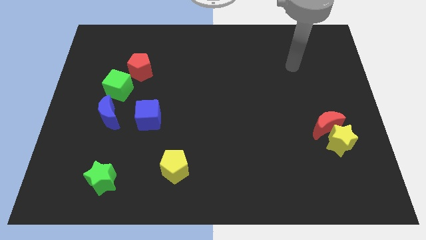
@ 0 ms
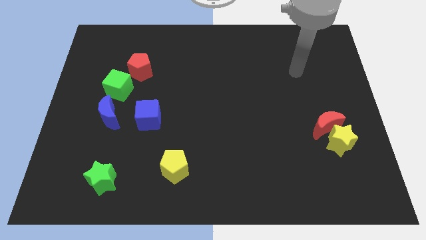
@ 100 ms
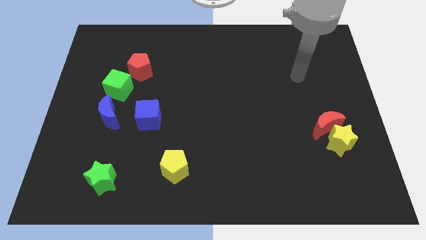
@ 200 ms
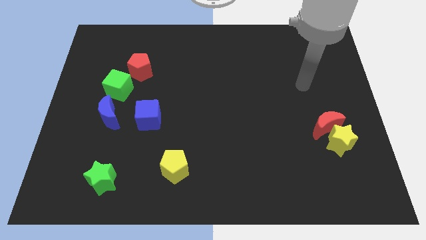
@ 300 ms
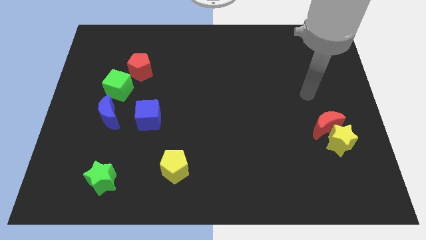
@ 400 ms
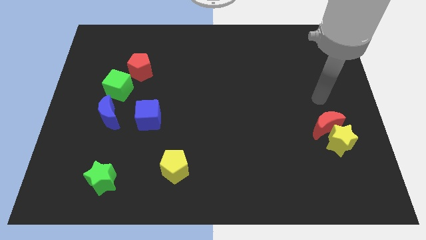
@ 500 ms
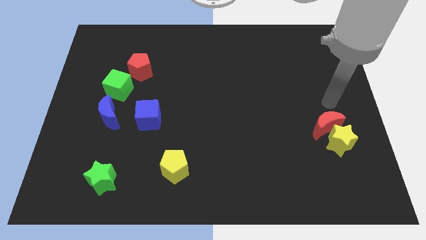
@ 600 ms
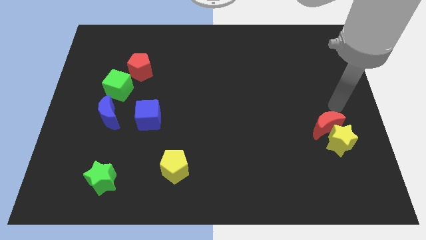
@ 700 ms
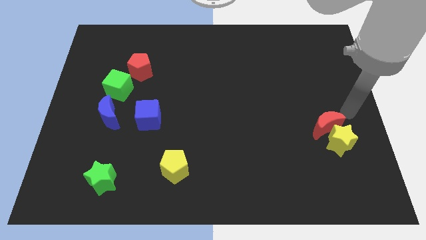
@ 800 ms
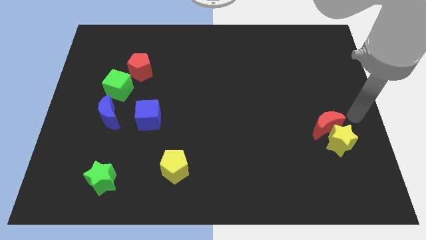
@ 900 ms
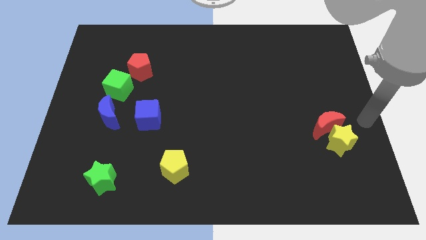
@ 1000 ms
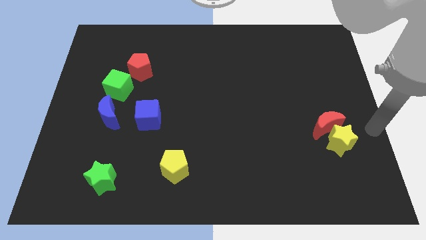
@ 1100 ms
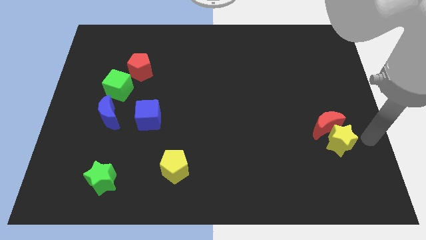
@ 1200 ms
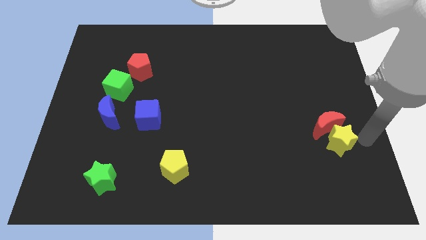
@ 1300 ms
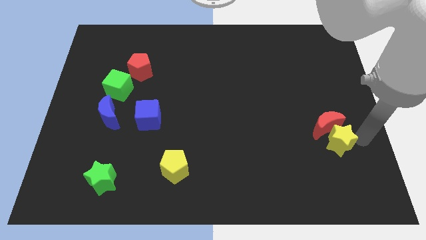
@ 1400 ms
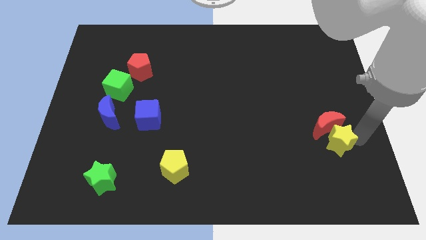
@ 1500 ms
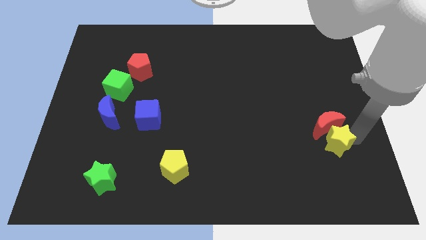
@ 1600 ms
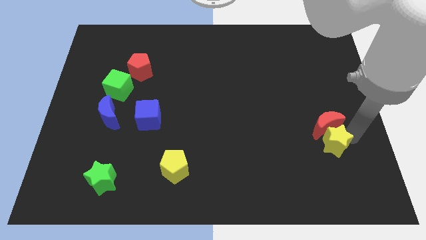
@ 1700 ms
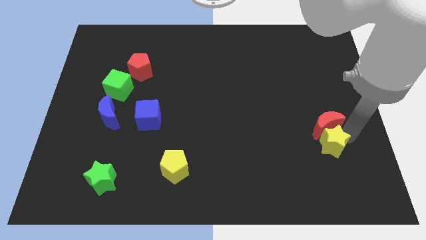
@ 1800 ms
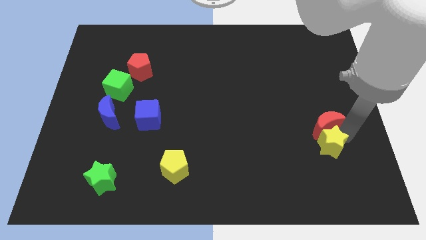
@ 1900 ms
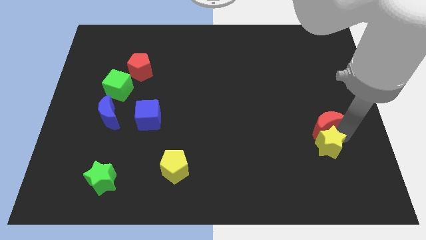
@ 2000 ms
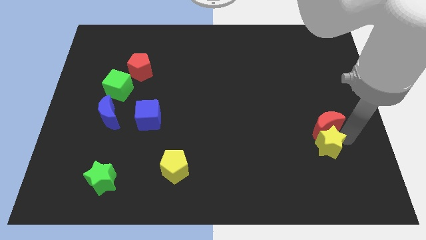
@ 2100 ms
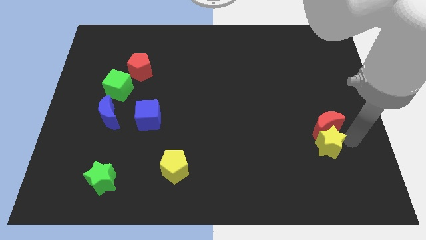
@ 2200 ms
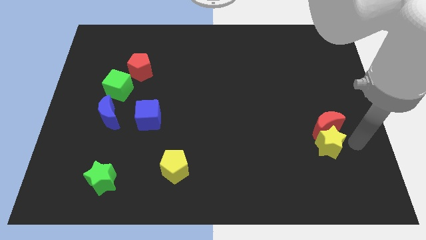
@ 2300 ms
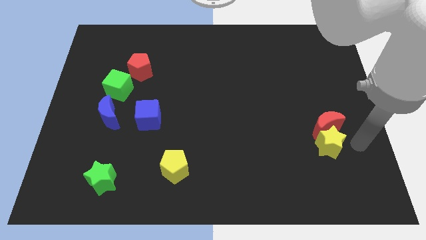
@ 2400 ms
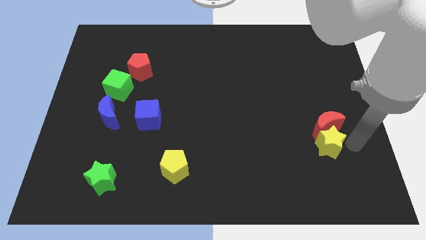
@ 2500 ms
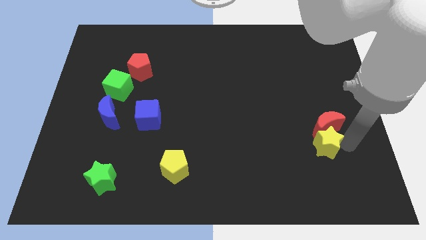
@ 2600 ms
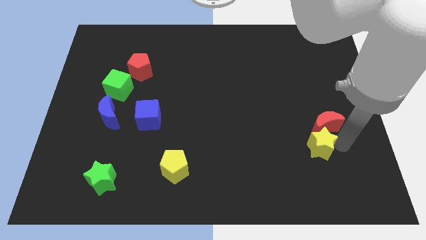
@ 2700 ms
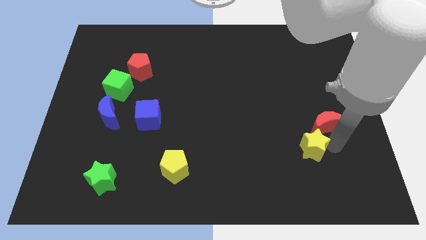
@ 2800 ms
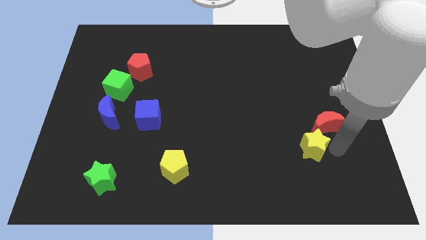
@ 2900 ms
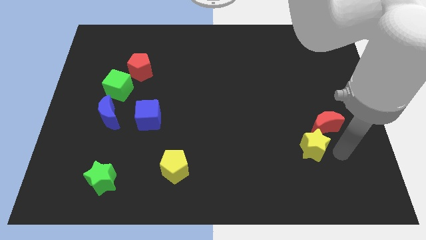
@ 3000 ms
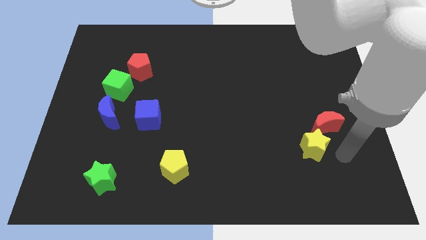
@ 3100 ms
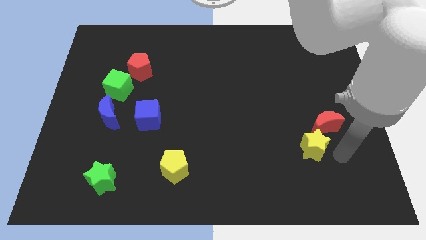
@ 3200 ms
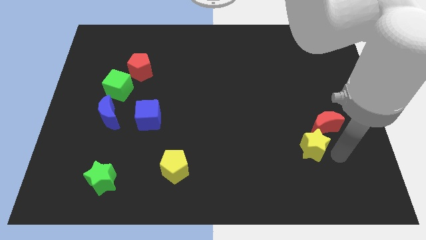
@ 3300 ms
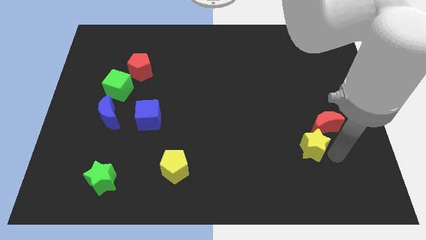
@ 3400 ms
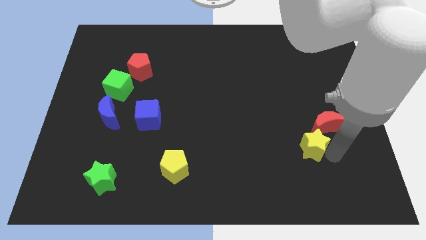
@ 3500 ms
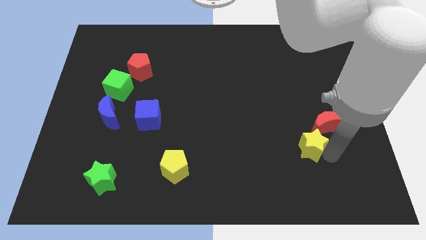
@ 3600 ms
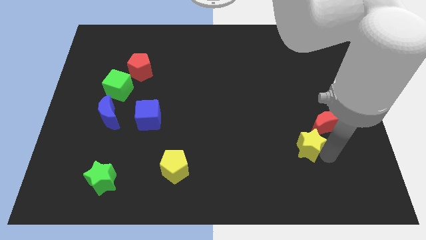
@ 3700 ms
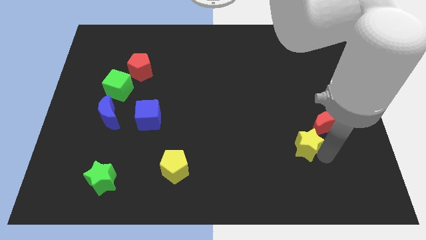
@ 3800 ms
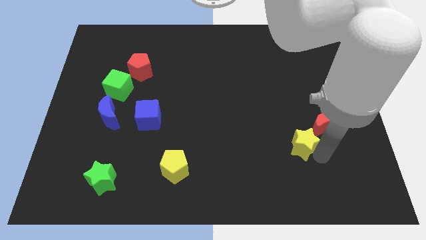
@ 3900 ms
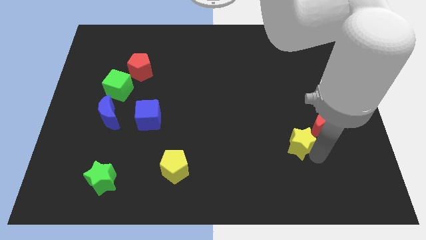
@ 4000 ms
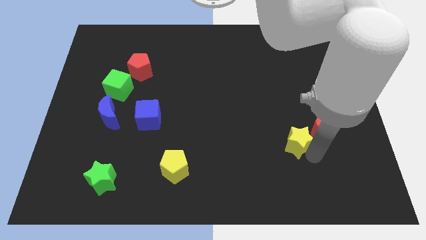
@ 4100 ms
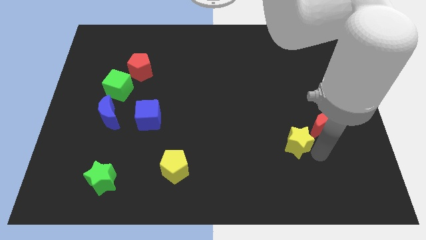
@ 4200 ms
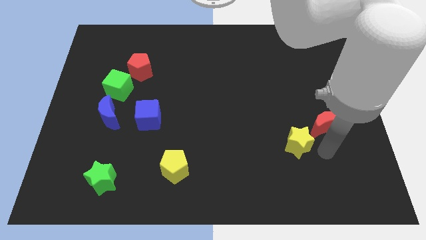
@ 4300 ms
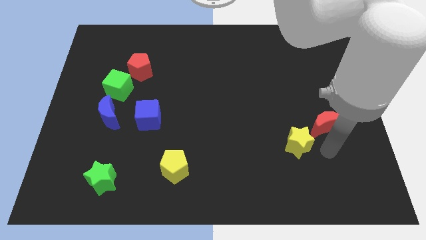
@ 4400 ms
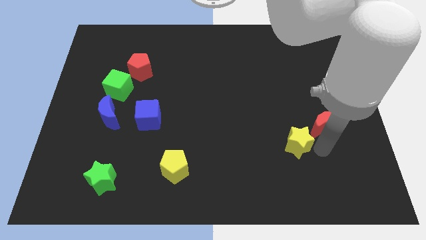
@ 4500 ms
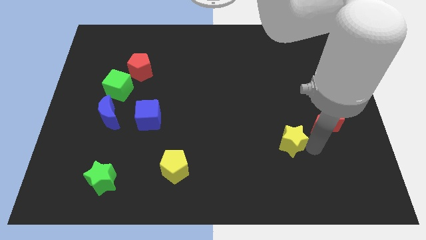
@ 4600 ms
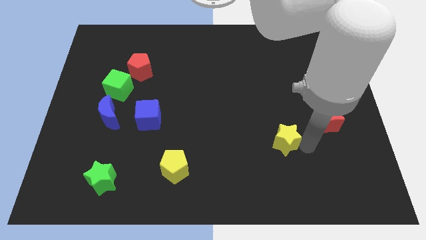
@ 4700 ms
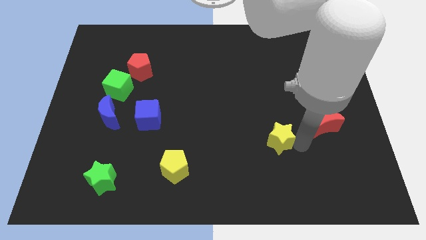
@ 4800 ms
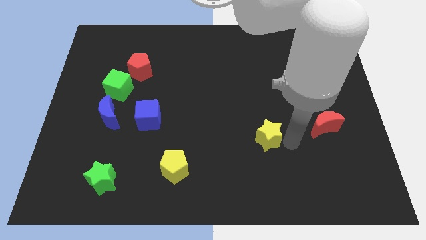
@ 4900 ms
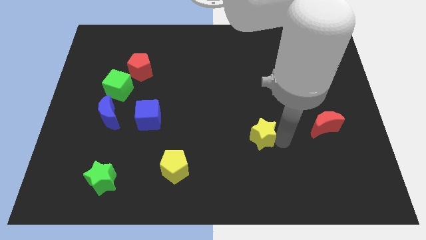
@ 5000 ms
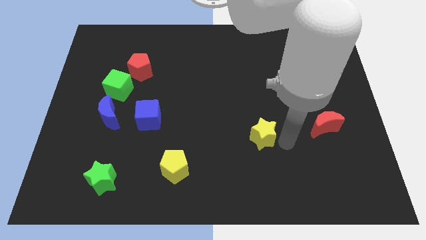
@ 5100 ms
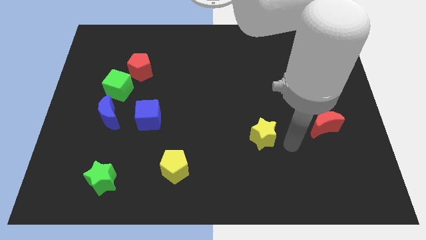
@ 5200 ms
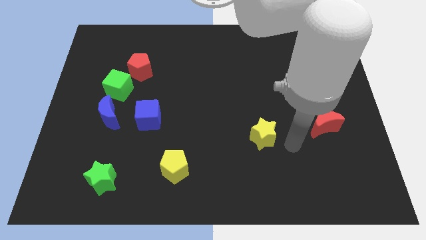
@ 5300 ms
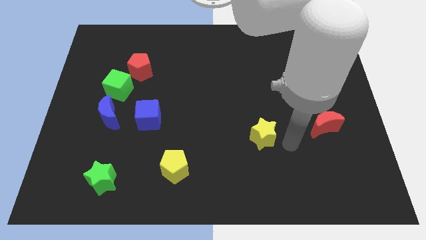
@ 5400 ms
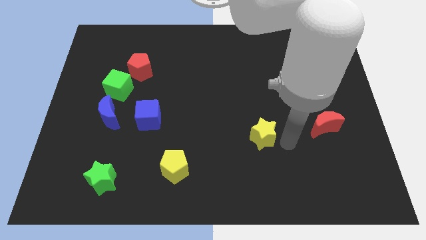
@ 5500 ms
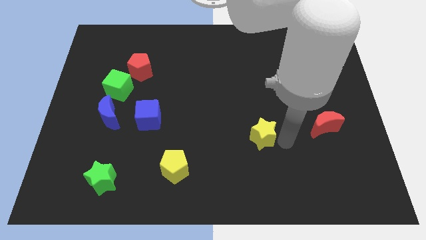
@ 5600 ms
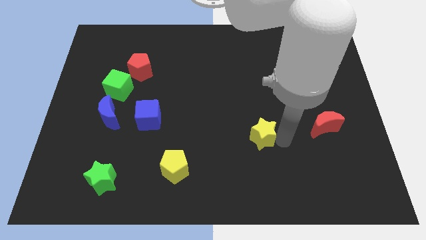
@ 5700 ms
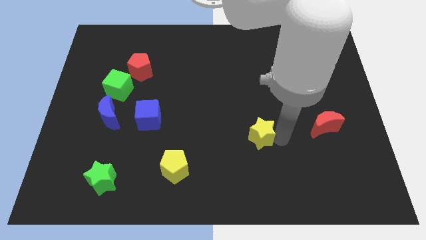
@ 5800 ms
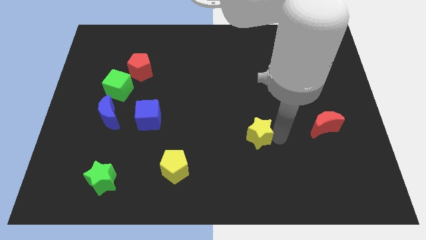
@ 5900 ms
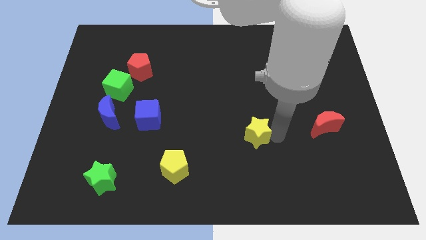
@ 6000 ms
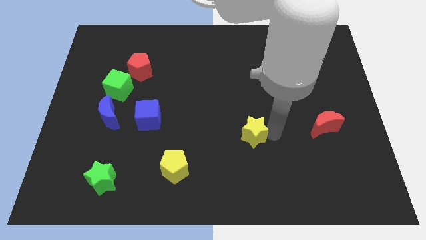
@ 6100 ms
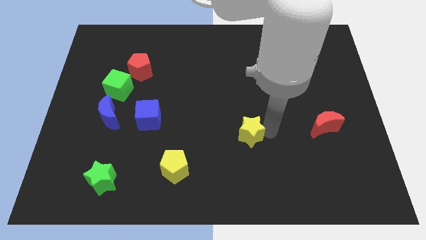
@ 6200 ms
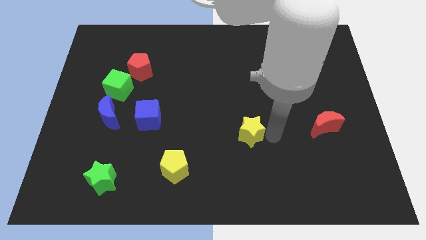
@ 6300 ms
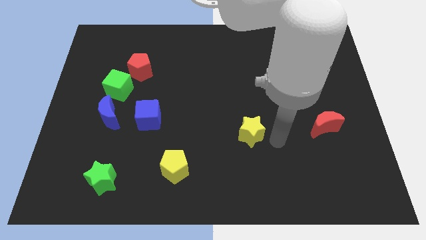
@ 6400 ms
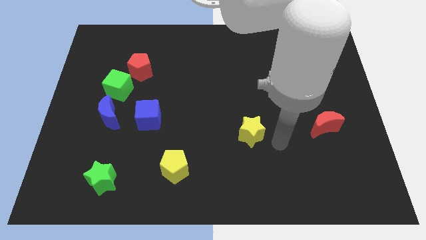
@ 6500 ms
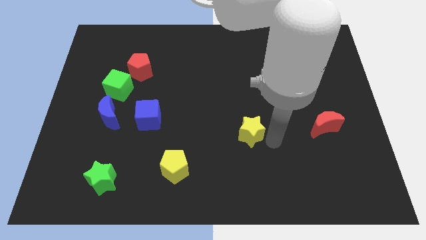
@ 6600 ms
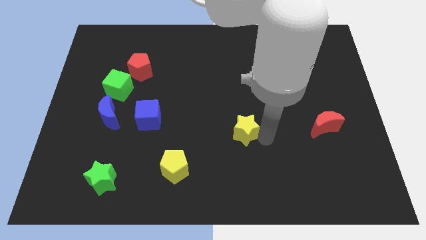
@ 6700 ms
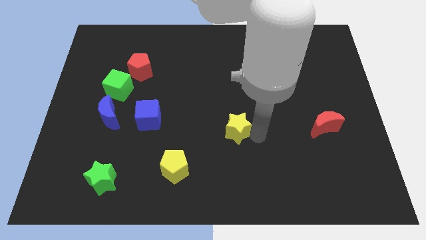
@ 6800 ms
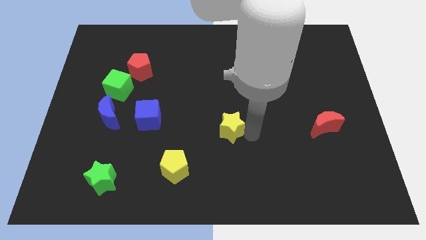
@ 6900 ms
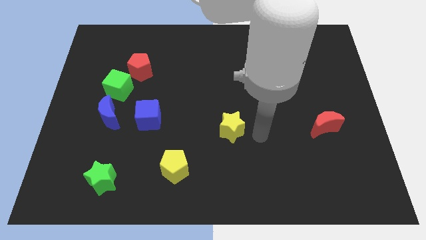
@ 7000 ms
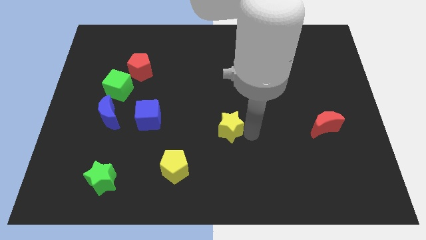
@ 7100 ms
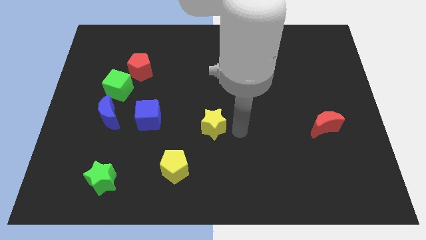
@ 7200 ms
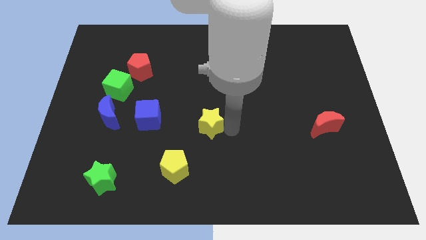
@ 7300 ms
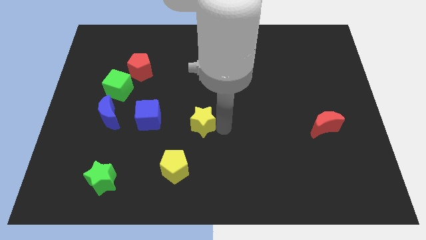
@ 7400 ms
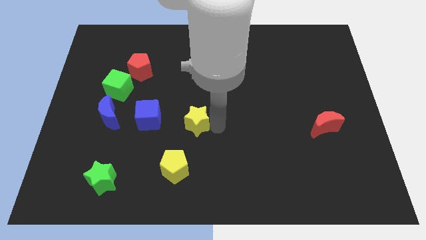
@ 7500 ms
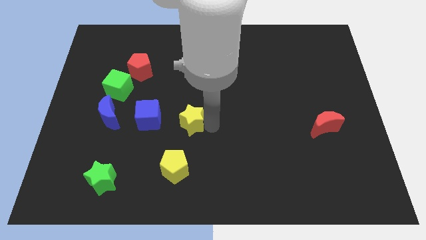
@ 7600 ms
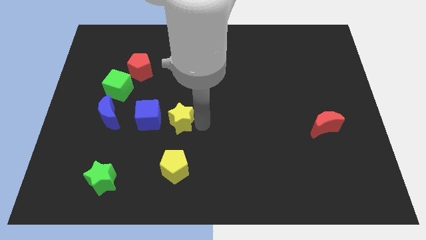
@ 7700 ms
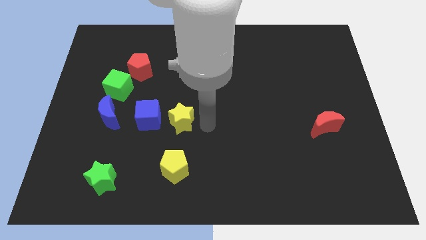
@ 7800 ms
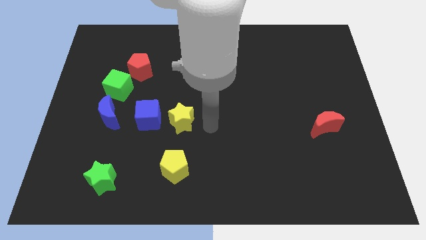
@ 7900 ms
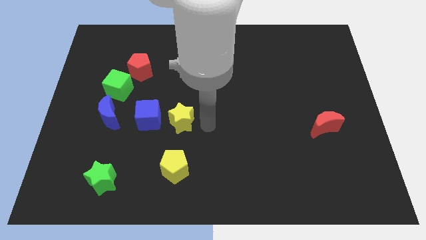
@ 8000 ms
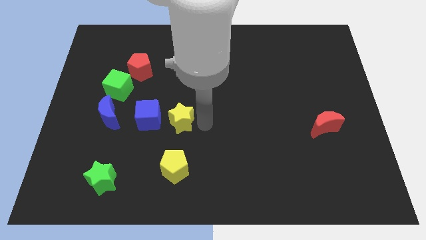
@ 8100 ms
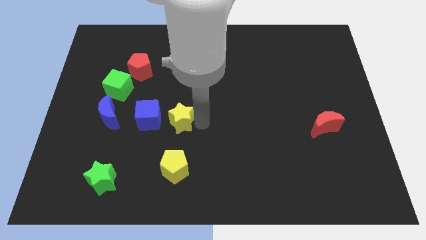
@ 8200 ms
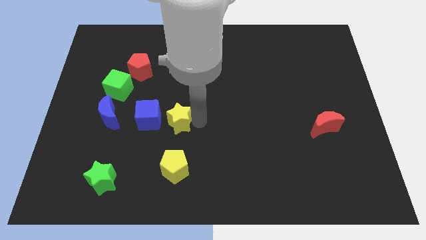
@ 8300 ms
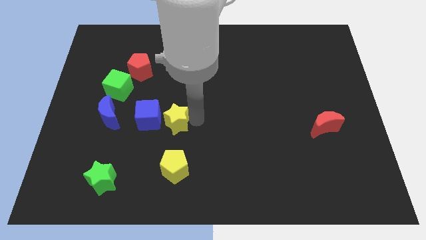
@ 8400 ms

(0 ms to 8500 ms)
slide the yellow star to the right of the blue moon
